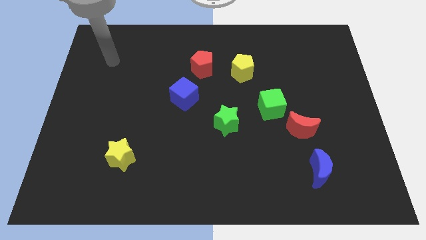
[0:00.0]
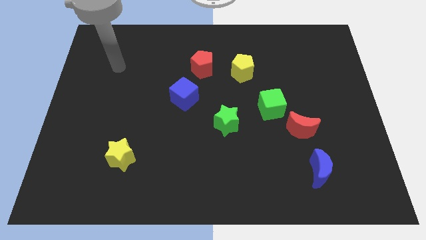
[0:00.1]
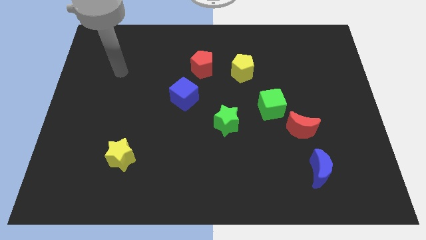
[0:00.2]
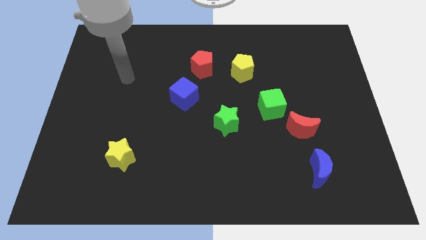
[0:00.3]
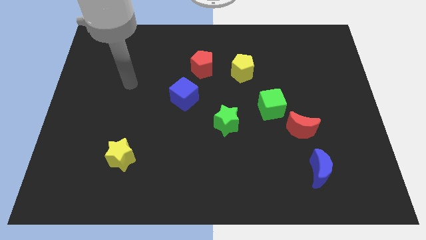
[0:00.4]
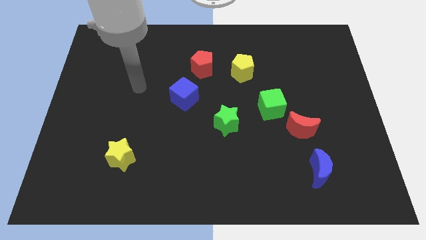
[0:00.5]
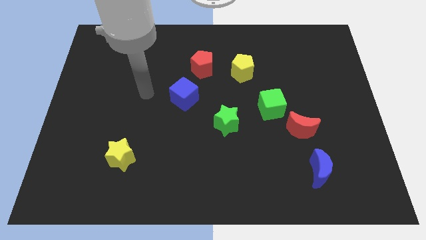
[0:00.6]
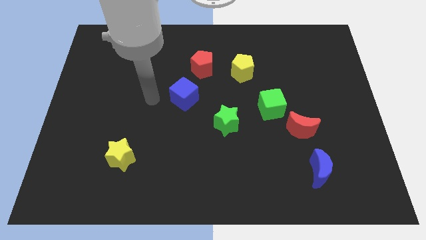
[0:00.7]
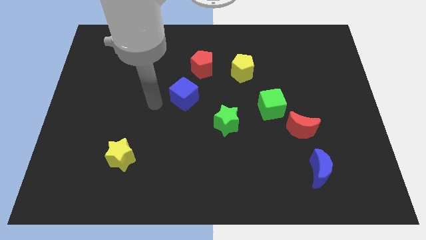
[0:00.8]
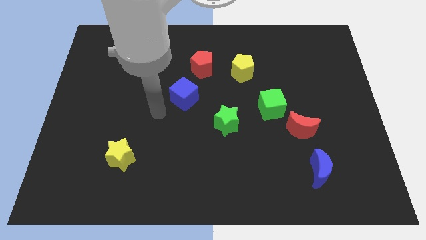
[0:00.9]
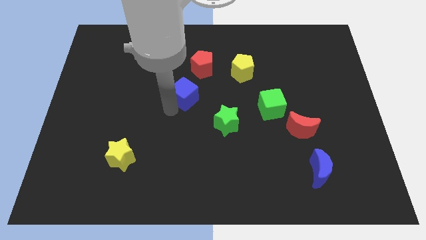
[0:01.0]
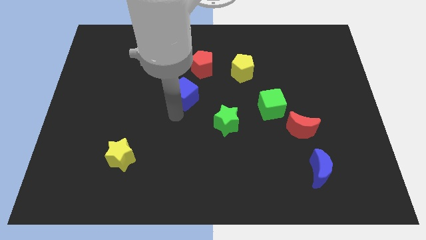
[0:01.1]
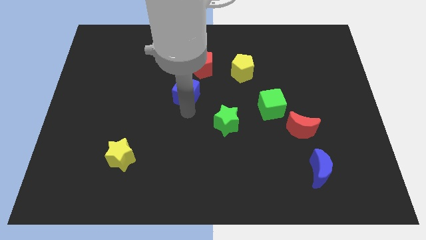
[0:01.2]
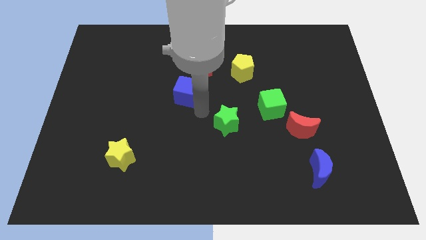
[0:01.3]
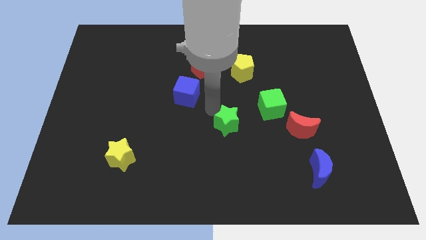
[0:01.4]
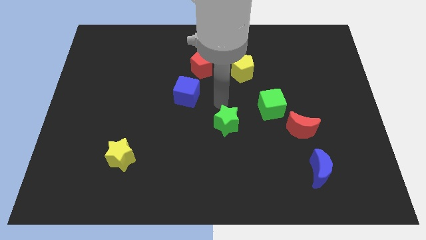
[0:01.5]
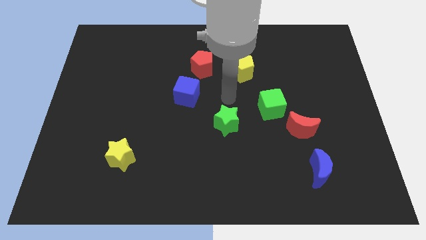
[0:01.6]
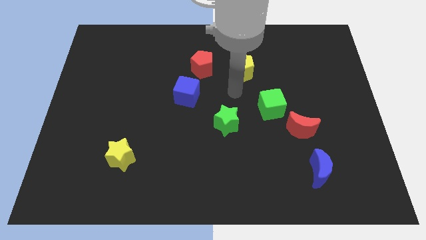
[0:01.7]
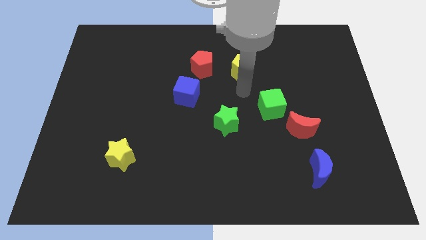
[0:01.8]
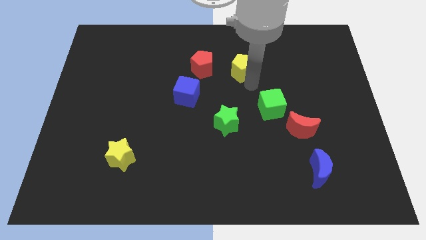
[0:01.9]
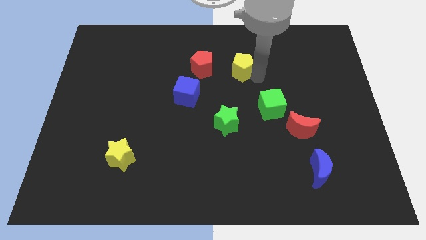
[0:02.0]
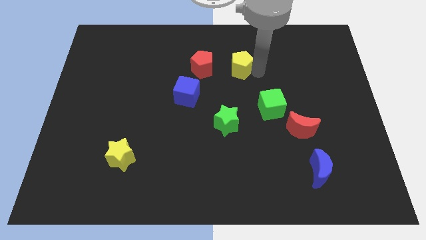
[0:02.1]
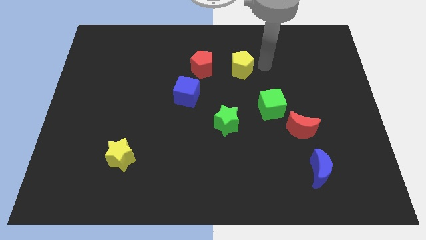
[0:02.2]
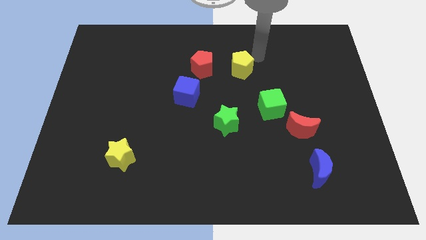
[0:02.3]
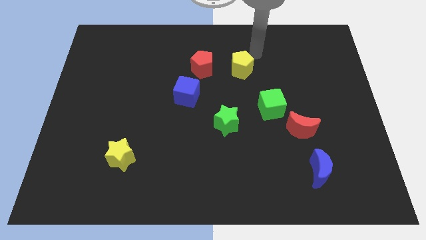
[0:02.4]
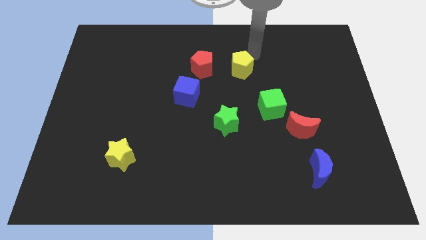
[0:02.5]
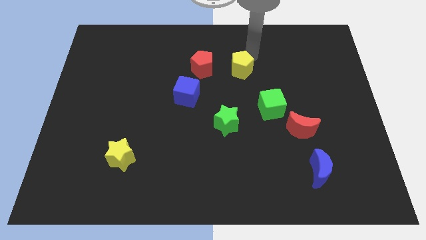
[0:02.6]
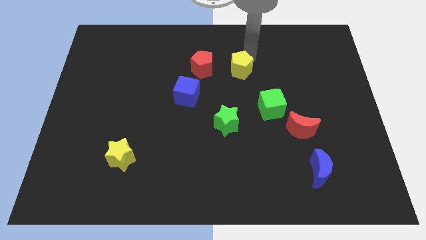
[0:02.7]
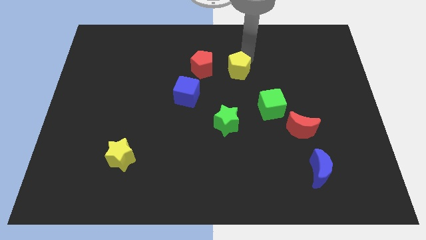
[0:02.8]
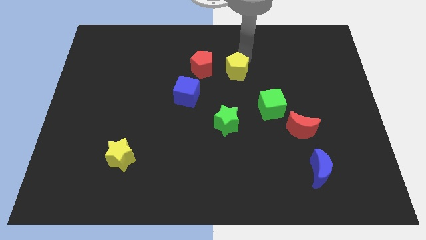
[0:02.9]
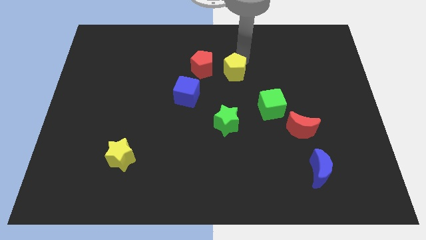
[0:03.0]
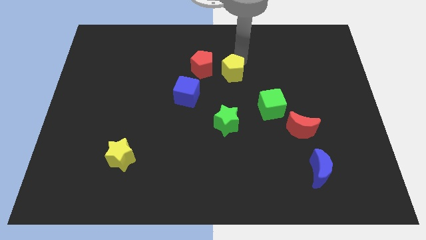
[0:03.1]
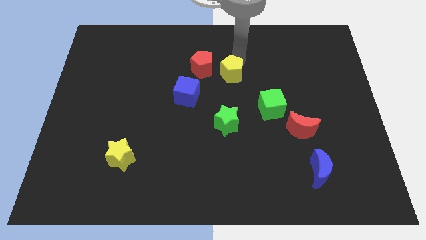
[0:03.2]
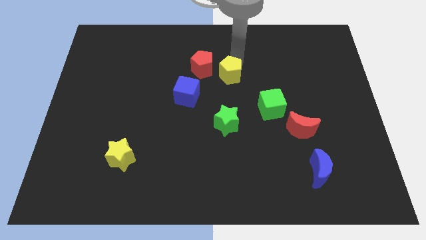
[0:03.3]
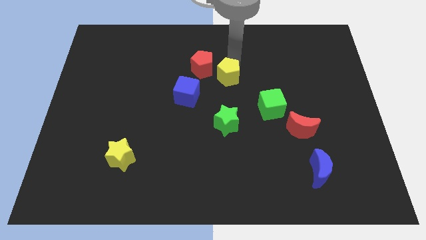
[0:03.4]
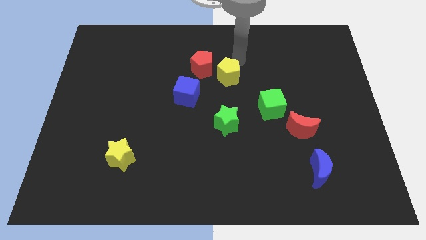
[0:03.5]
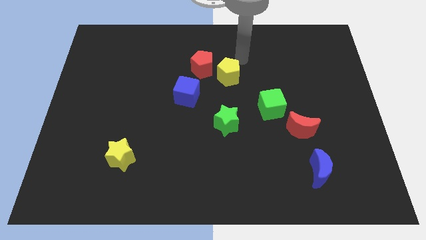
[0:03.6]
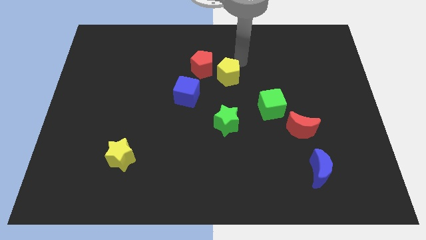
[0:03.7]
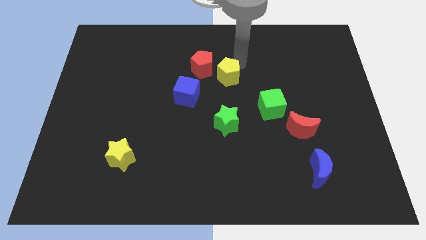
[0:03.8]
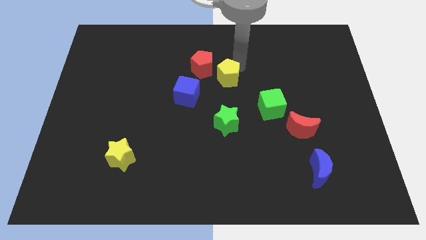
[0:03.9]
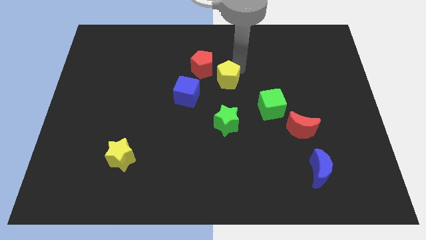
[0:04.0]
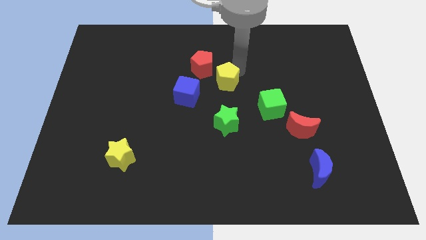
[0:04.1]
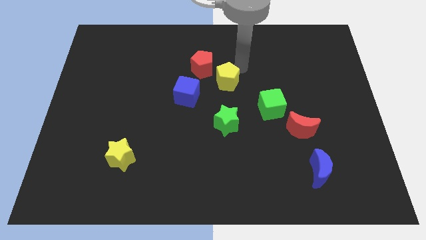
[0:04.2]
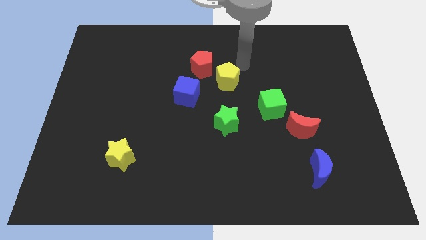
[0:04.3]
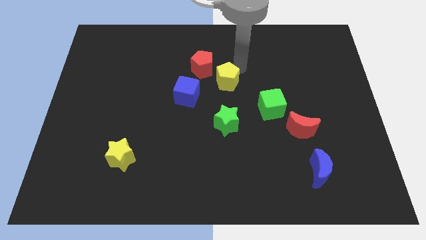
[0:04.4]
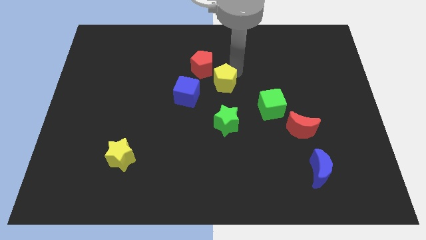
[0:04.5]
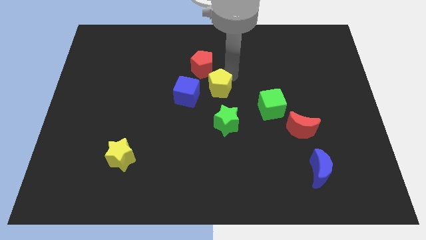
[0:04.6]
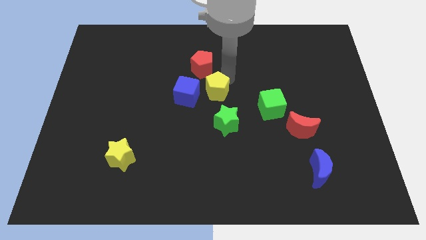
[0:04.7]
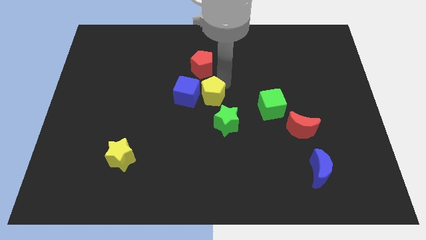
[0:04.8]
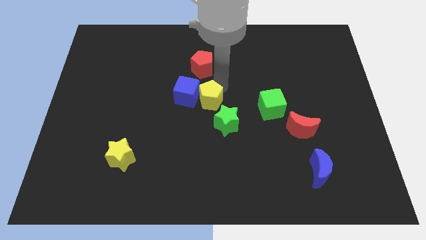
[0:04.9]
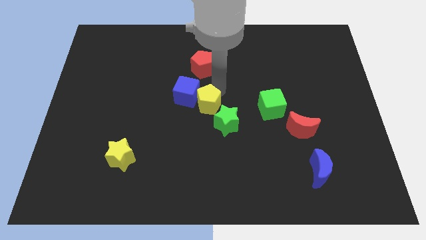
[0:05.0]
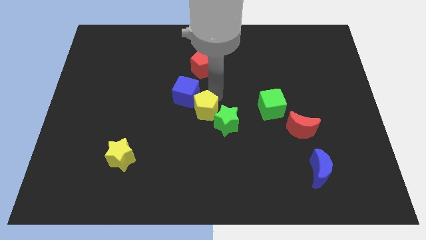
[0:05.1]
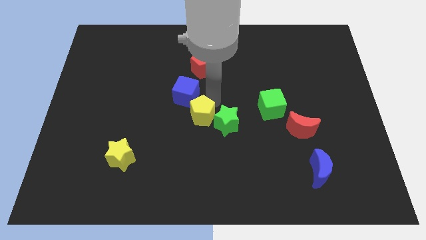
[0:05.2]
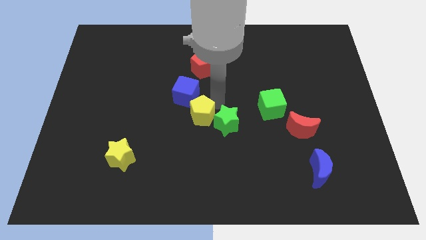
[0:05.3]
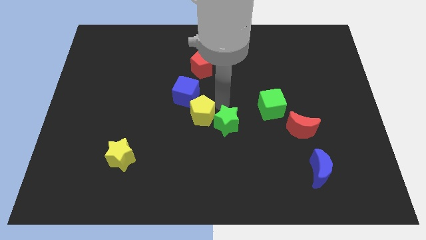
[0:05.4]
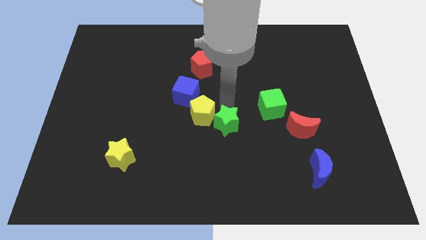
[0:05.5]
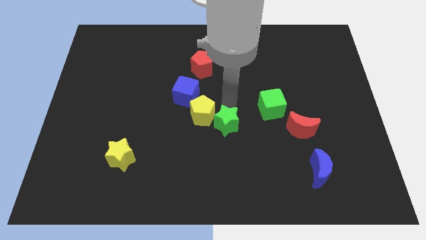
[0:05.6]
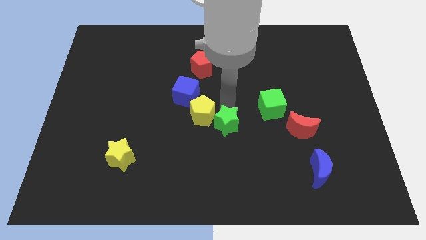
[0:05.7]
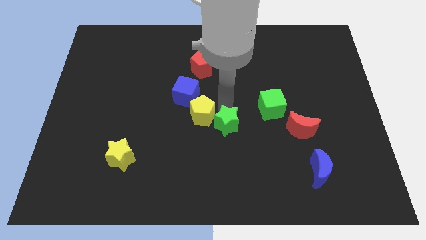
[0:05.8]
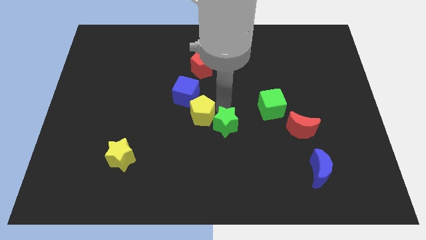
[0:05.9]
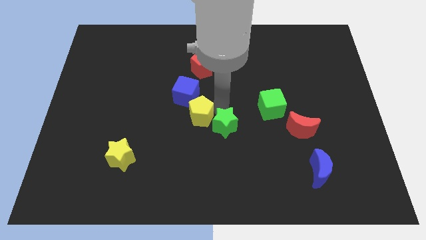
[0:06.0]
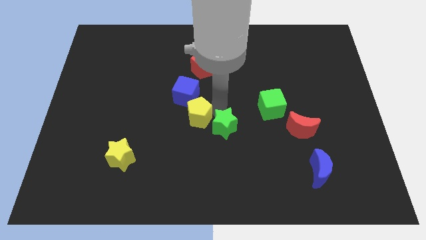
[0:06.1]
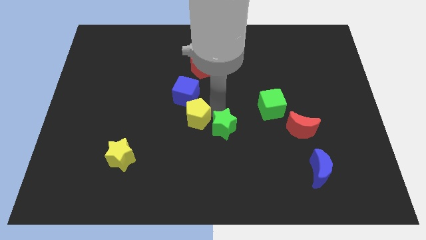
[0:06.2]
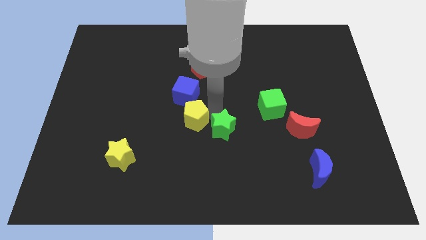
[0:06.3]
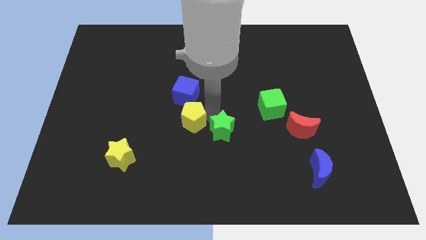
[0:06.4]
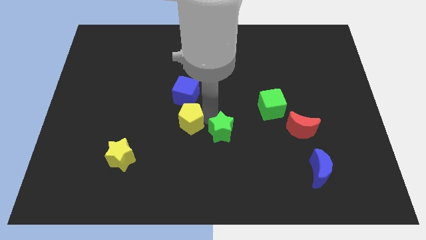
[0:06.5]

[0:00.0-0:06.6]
move the yellow pentagon diagonally downwards and to the left

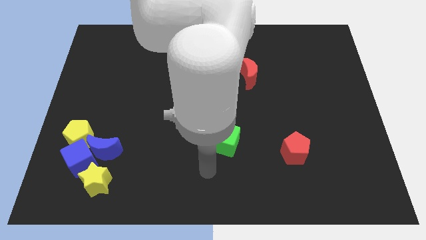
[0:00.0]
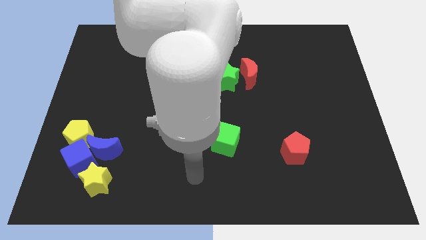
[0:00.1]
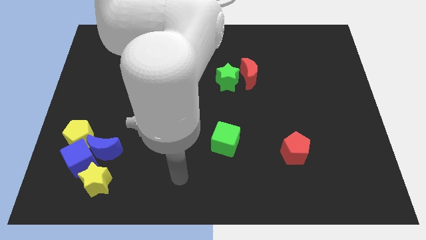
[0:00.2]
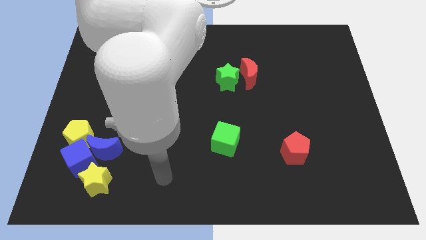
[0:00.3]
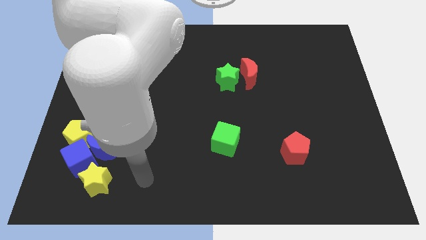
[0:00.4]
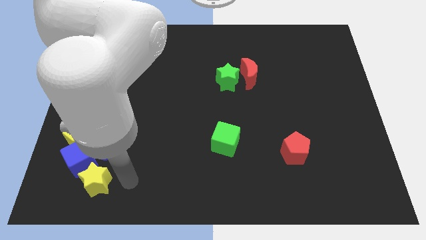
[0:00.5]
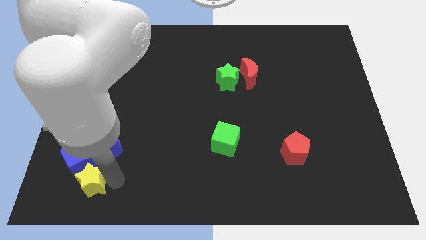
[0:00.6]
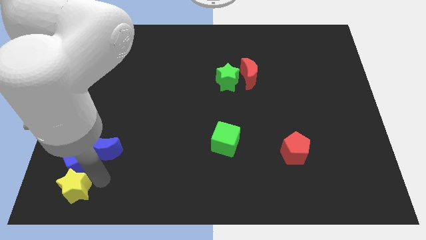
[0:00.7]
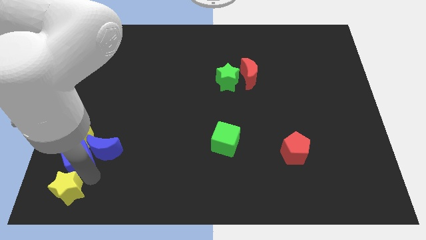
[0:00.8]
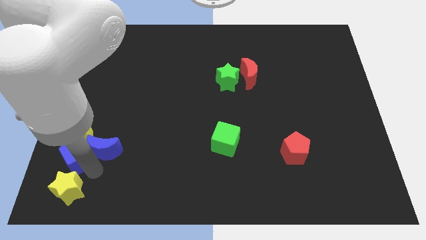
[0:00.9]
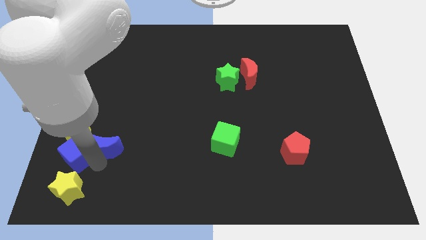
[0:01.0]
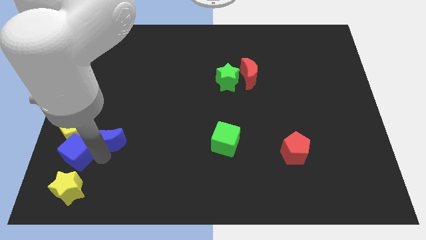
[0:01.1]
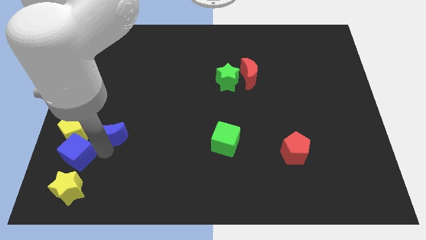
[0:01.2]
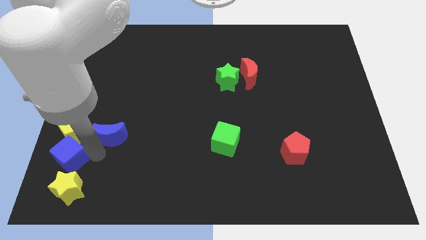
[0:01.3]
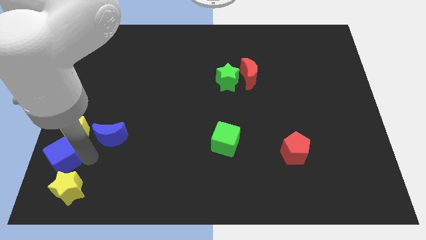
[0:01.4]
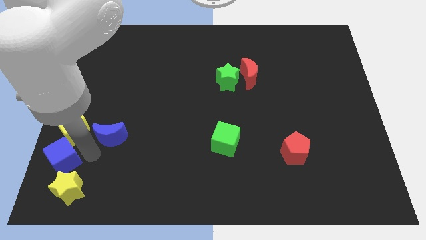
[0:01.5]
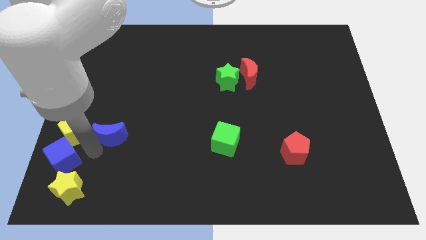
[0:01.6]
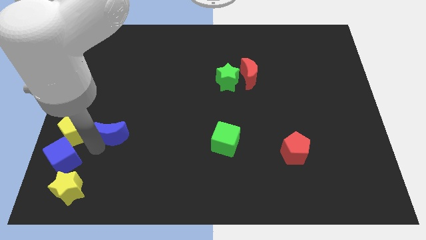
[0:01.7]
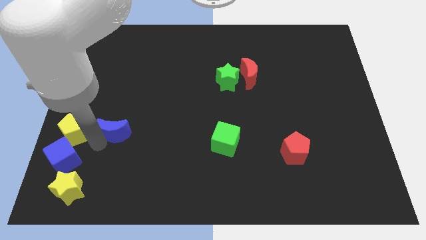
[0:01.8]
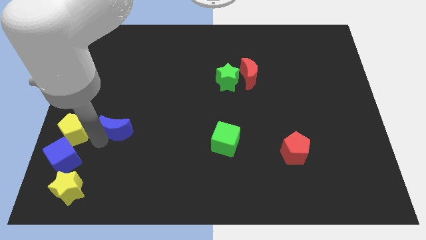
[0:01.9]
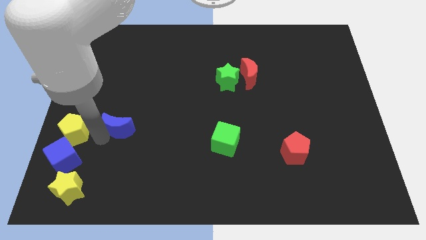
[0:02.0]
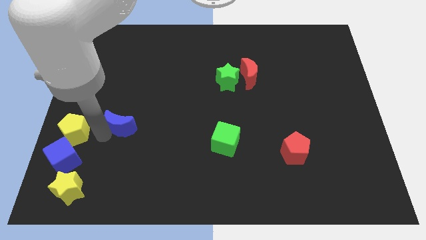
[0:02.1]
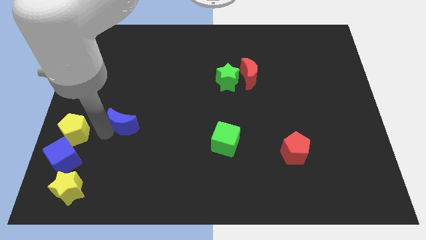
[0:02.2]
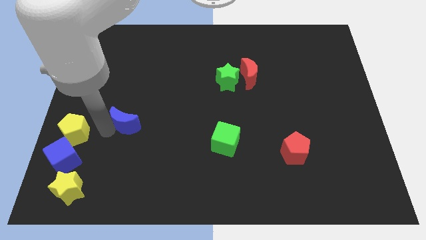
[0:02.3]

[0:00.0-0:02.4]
slightly slide the blue moon diagonally up and right
